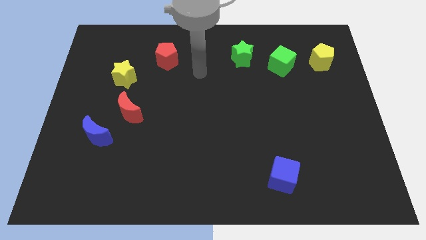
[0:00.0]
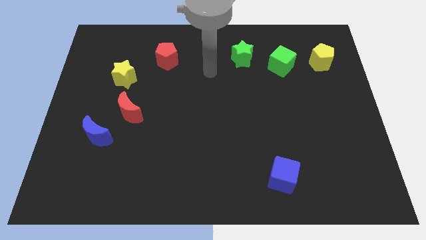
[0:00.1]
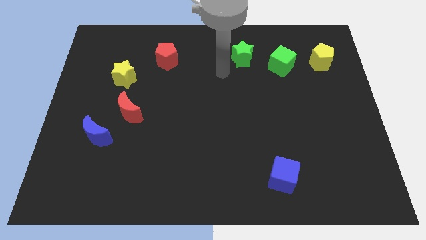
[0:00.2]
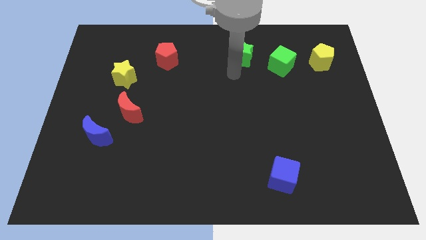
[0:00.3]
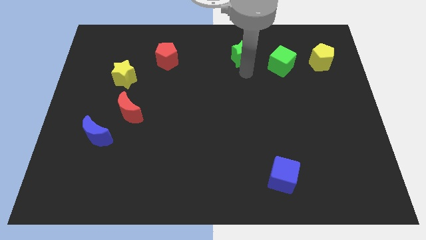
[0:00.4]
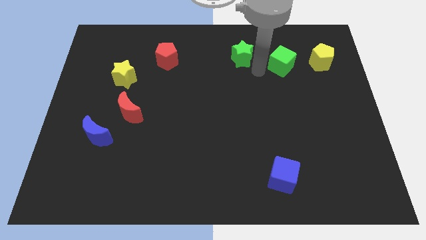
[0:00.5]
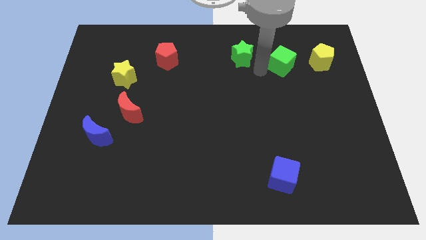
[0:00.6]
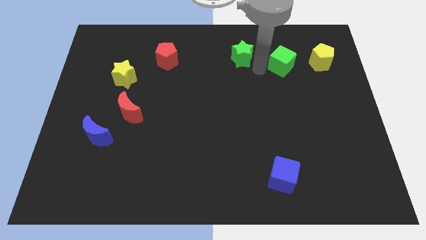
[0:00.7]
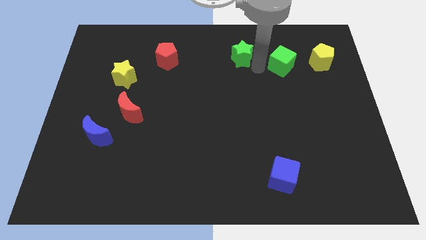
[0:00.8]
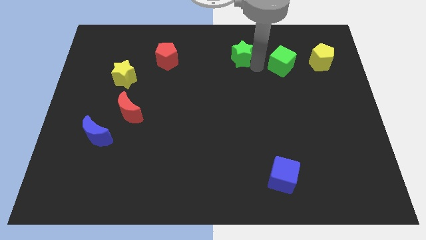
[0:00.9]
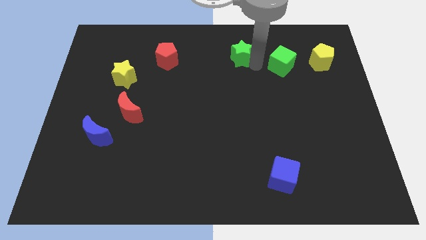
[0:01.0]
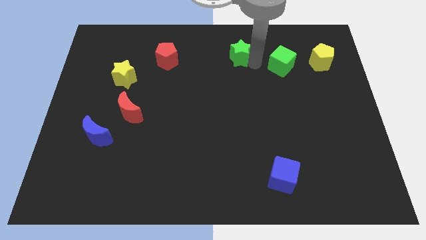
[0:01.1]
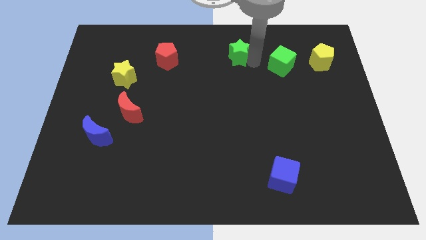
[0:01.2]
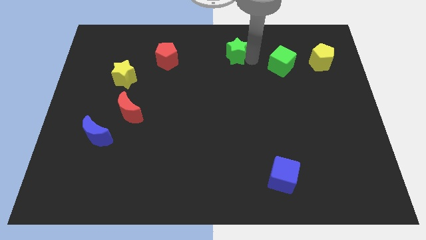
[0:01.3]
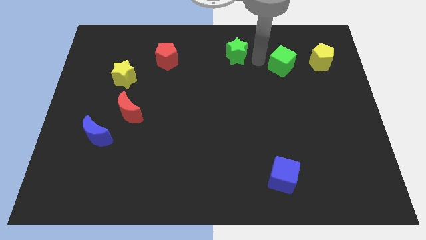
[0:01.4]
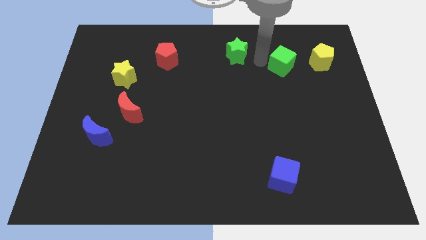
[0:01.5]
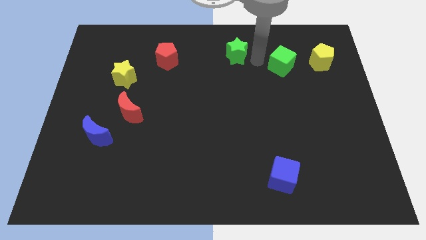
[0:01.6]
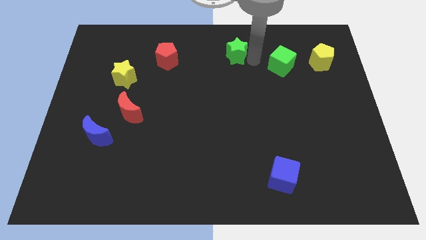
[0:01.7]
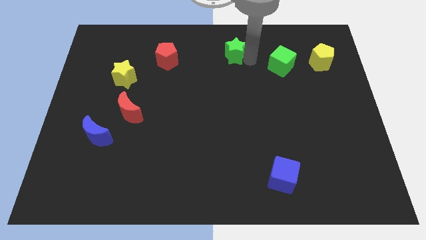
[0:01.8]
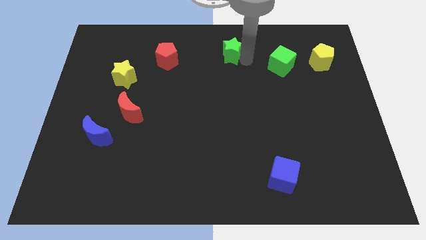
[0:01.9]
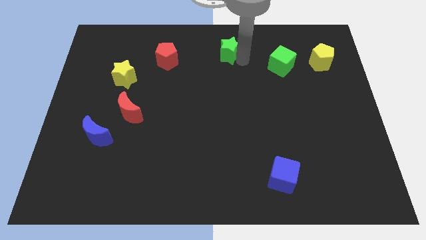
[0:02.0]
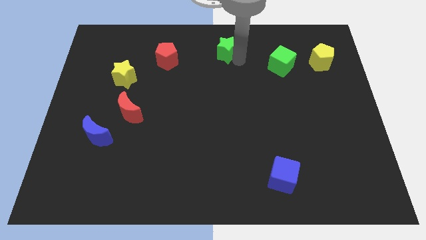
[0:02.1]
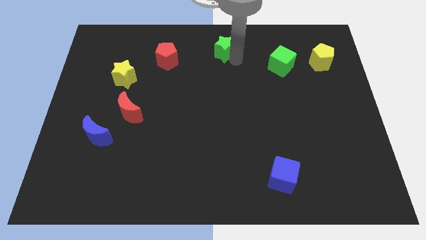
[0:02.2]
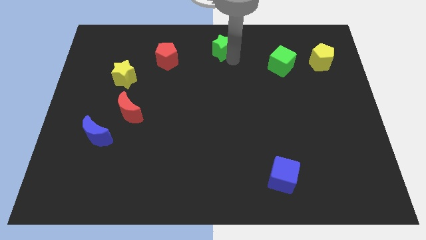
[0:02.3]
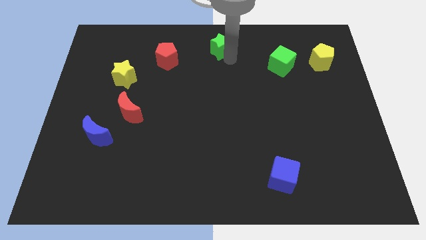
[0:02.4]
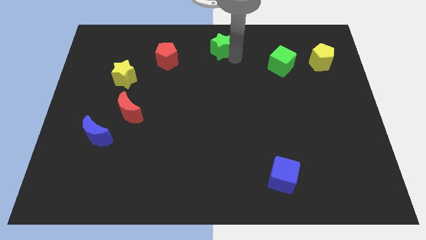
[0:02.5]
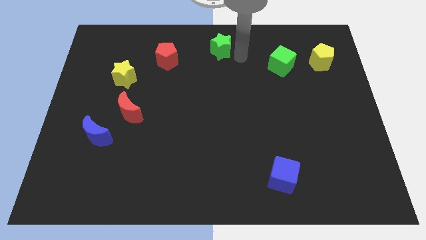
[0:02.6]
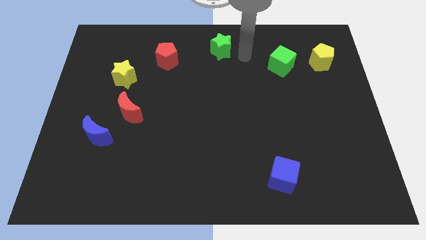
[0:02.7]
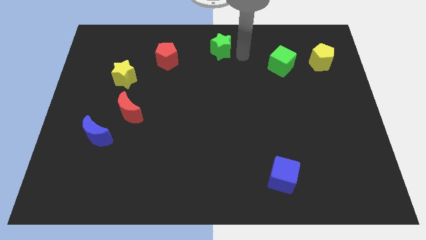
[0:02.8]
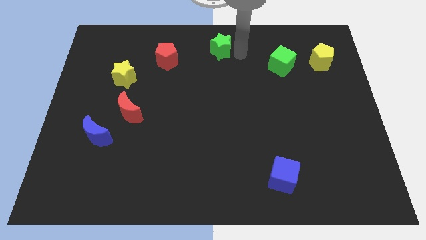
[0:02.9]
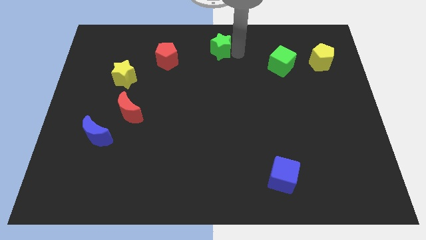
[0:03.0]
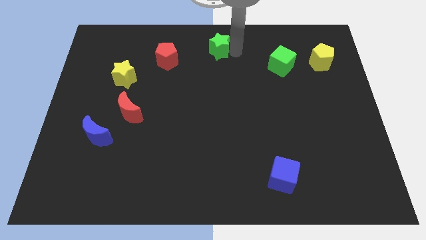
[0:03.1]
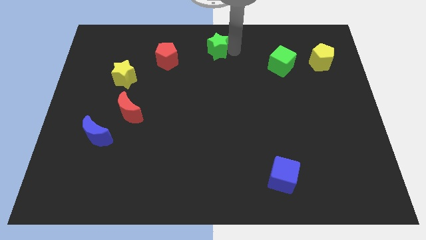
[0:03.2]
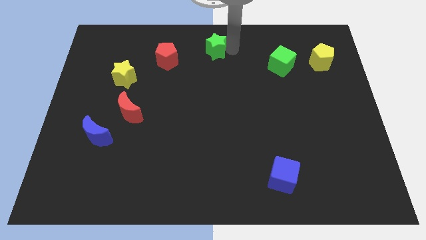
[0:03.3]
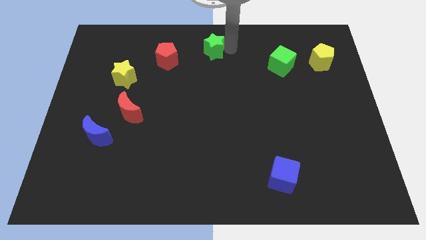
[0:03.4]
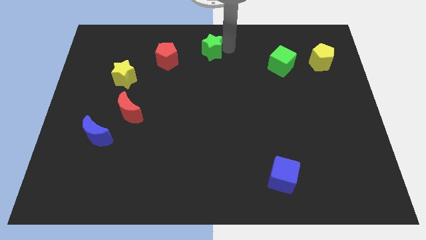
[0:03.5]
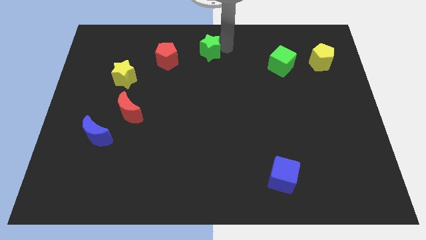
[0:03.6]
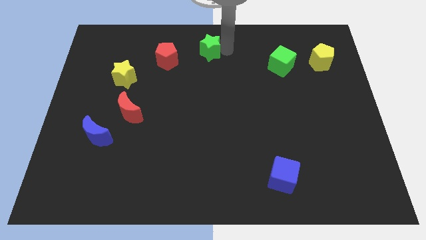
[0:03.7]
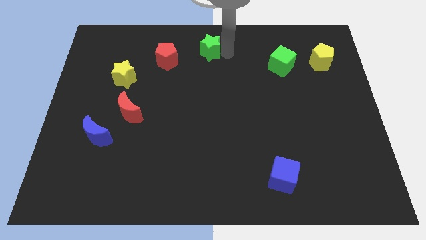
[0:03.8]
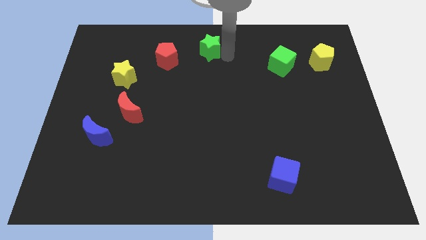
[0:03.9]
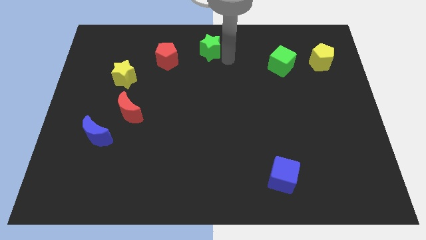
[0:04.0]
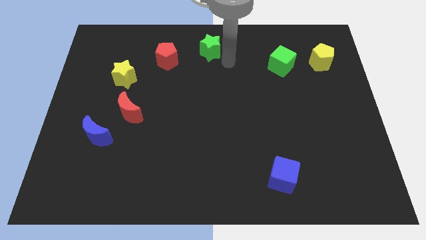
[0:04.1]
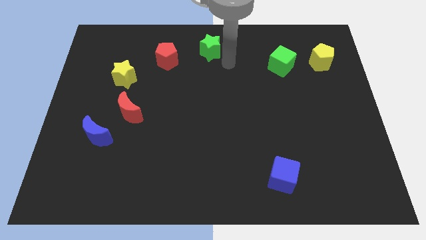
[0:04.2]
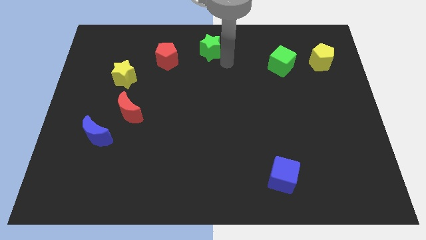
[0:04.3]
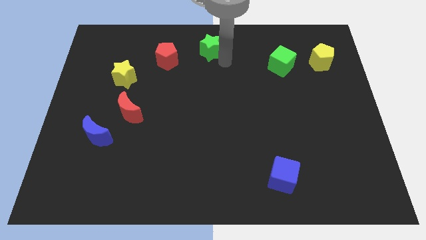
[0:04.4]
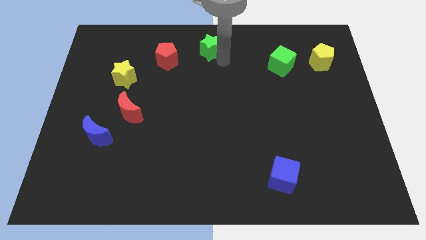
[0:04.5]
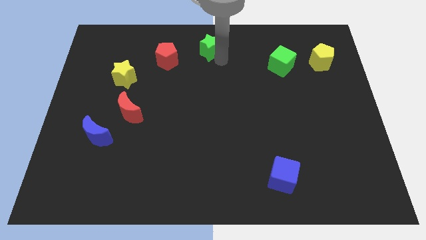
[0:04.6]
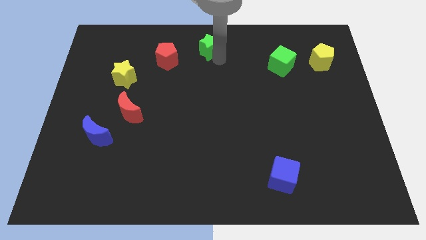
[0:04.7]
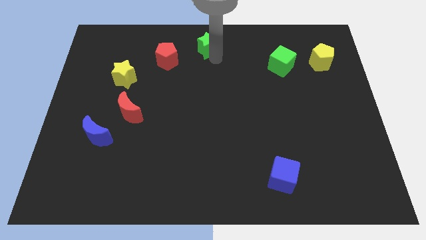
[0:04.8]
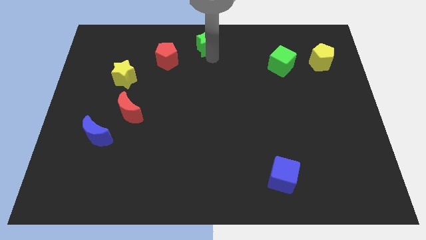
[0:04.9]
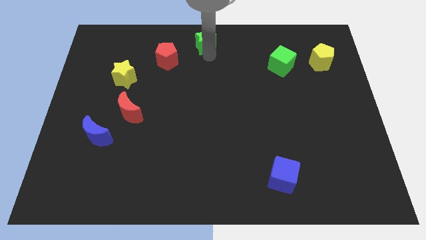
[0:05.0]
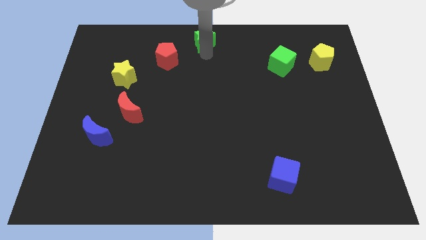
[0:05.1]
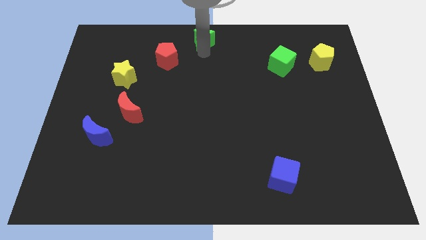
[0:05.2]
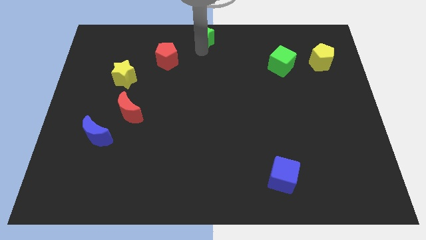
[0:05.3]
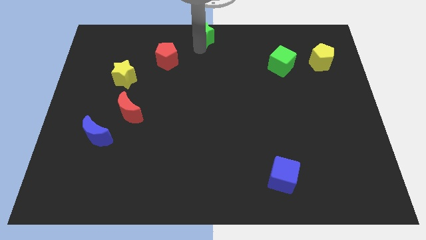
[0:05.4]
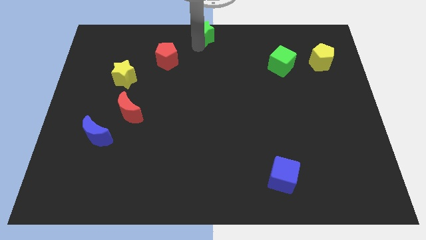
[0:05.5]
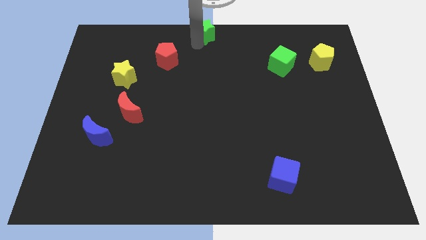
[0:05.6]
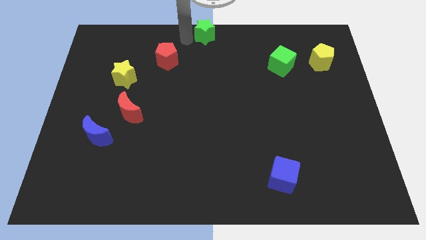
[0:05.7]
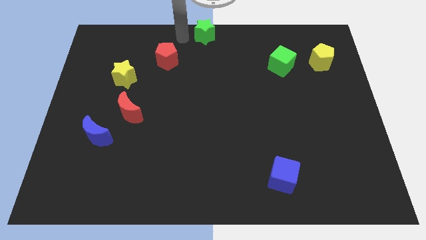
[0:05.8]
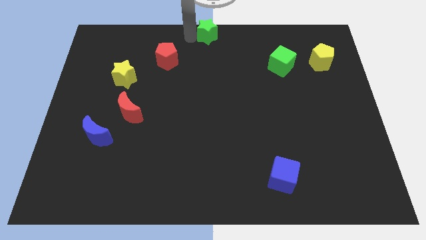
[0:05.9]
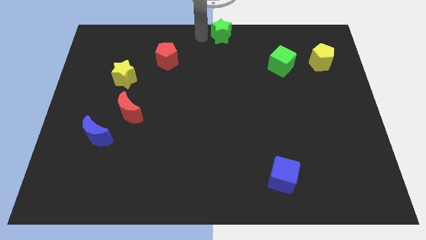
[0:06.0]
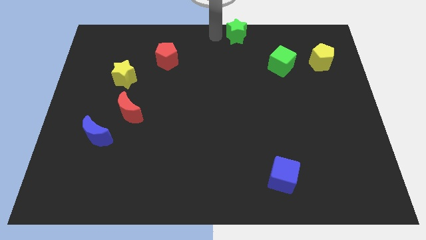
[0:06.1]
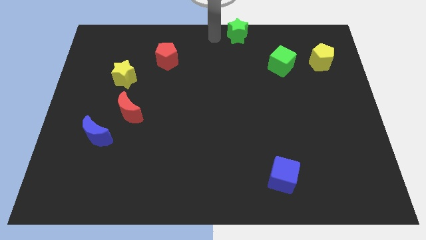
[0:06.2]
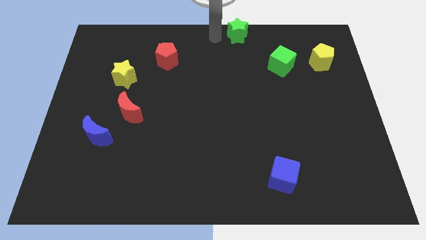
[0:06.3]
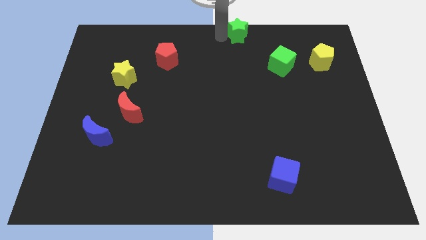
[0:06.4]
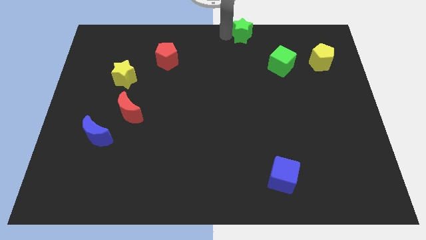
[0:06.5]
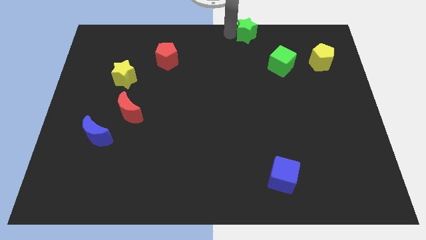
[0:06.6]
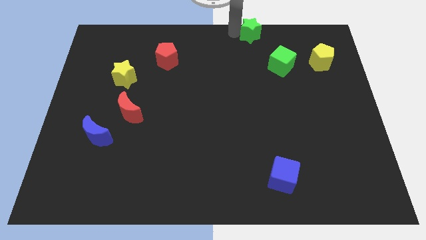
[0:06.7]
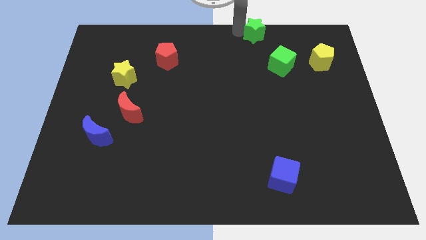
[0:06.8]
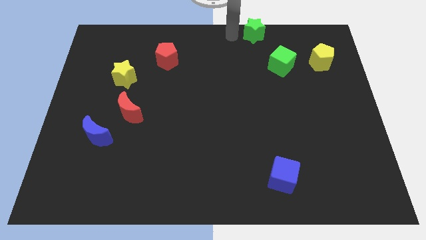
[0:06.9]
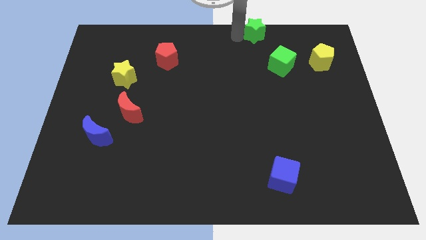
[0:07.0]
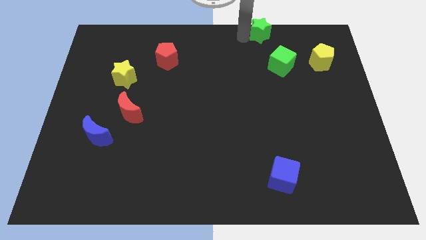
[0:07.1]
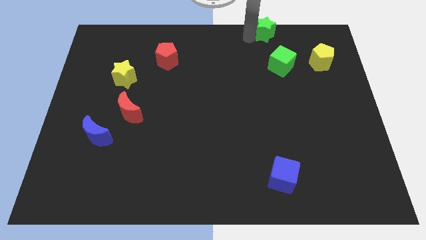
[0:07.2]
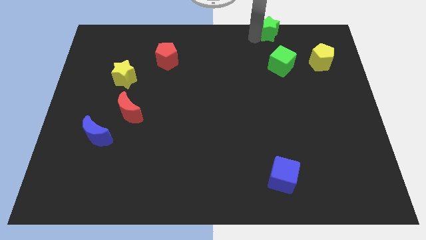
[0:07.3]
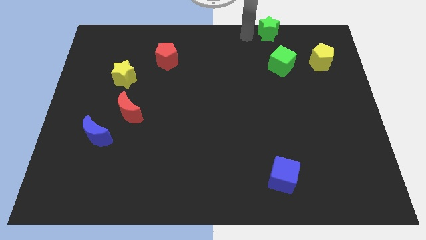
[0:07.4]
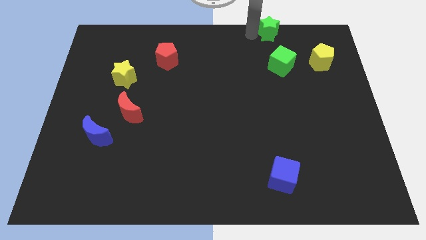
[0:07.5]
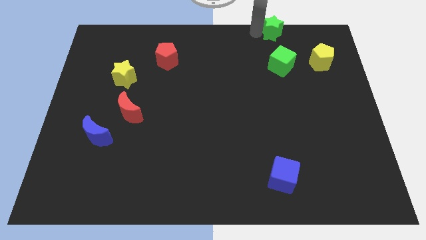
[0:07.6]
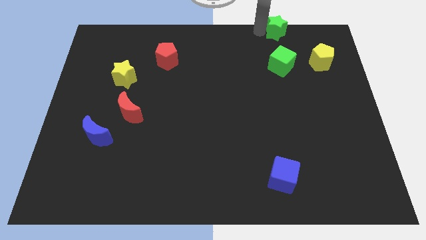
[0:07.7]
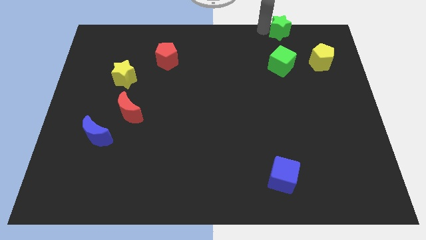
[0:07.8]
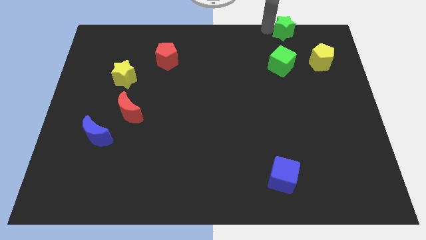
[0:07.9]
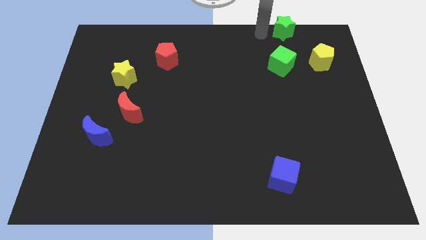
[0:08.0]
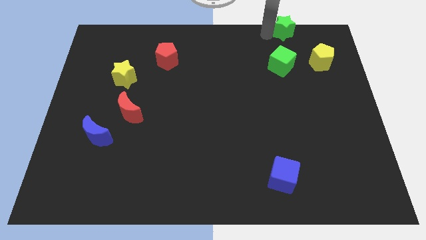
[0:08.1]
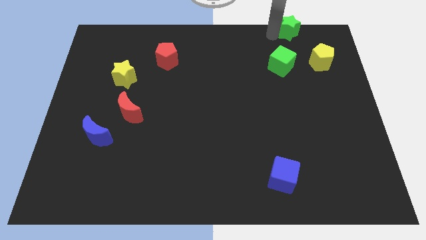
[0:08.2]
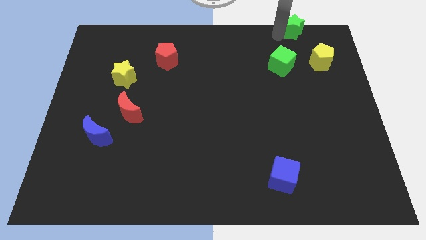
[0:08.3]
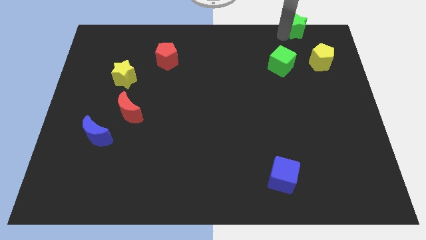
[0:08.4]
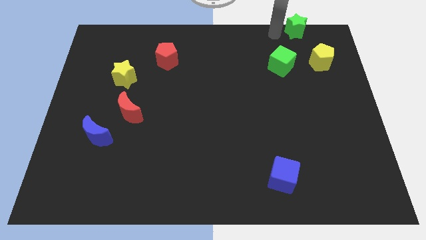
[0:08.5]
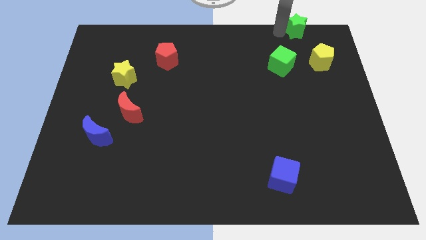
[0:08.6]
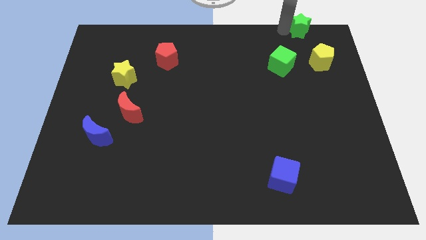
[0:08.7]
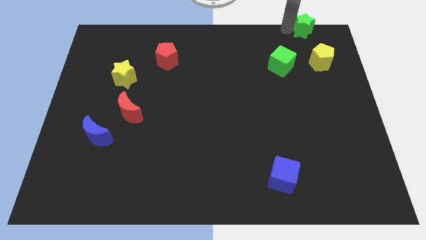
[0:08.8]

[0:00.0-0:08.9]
slide the green star to the top right corner
